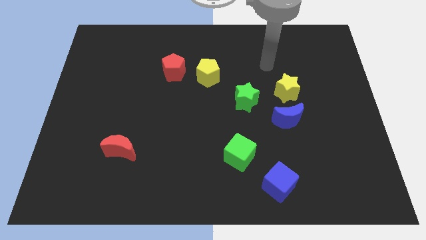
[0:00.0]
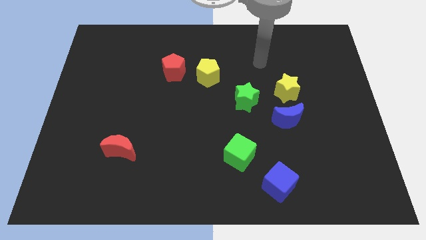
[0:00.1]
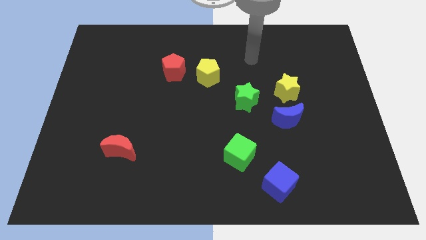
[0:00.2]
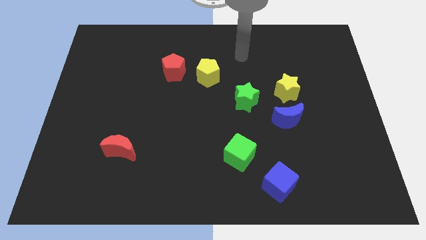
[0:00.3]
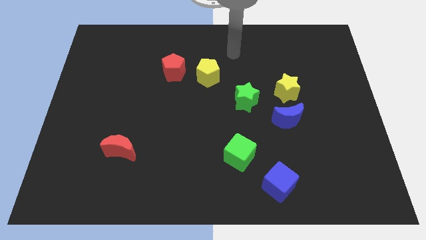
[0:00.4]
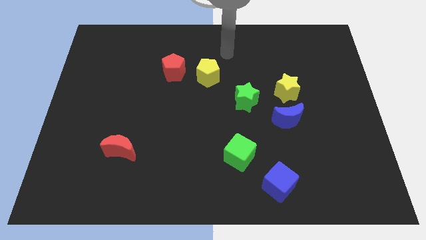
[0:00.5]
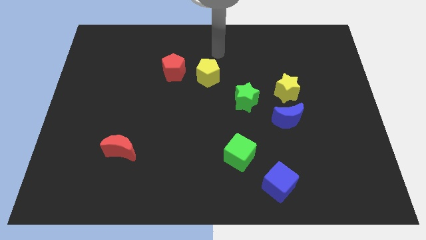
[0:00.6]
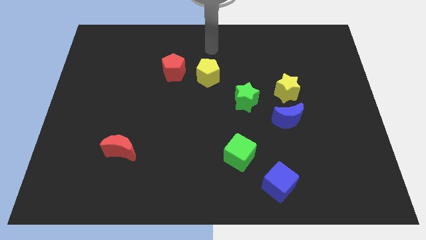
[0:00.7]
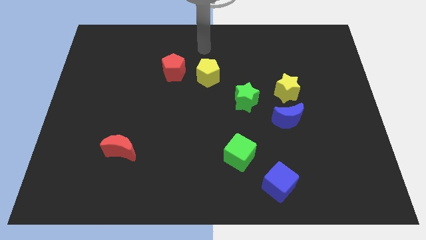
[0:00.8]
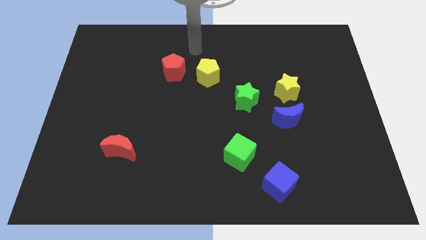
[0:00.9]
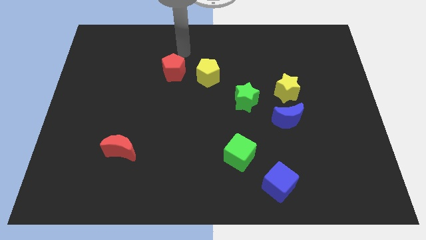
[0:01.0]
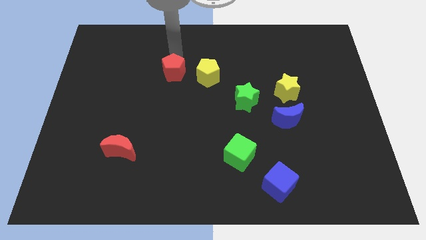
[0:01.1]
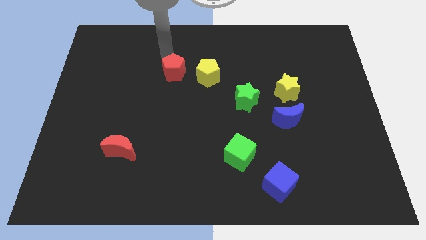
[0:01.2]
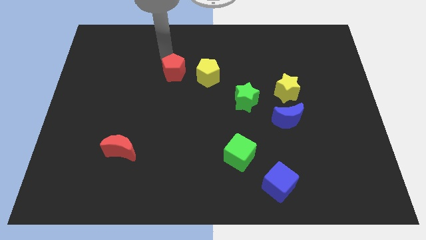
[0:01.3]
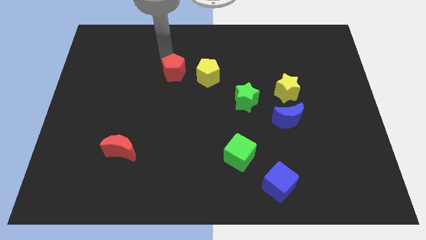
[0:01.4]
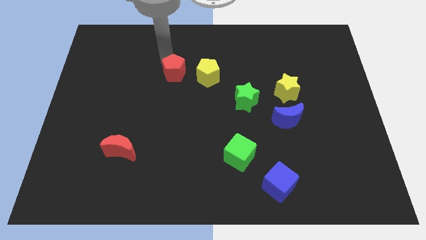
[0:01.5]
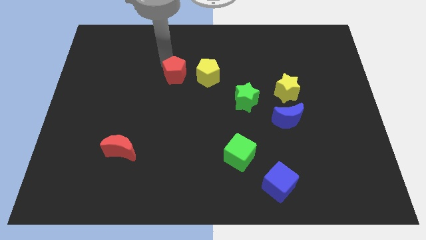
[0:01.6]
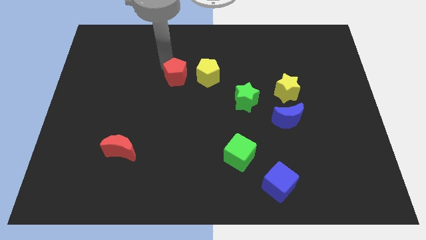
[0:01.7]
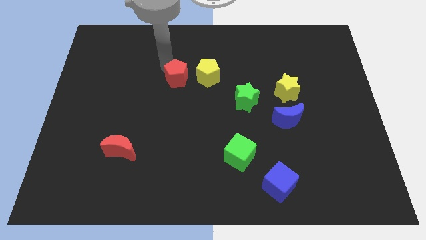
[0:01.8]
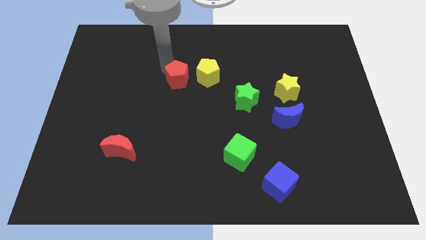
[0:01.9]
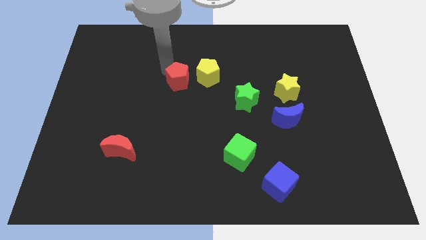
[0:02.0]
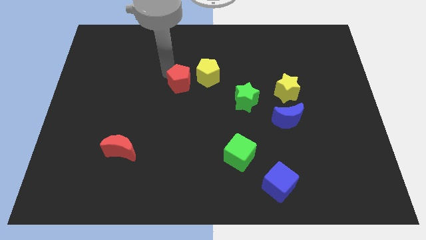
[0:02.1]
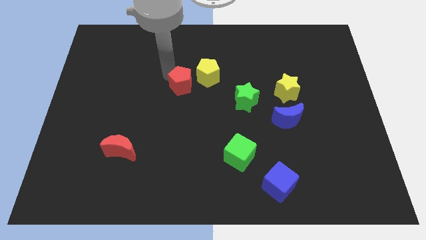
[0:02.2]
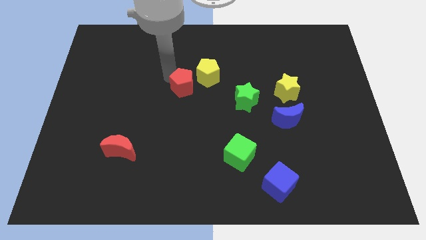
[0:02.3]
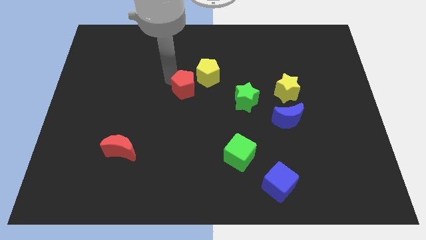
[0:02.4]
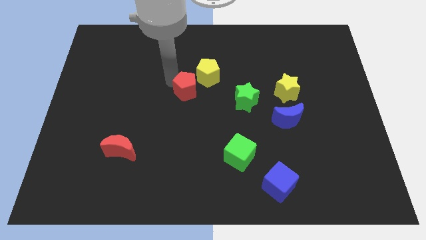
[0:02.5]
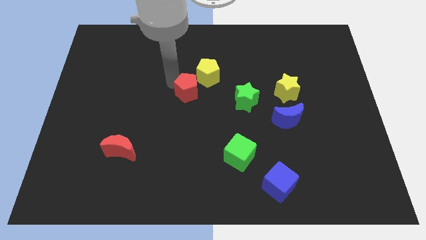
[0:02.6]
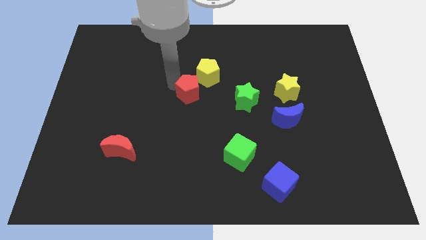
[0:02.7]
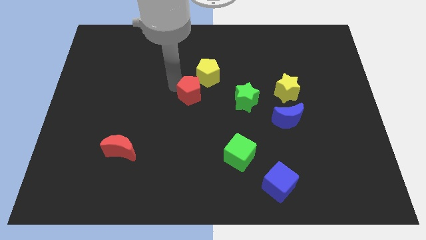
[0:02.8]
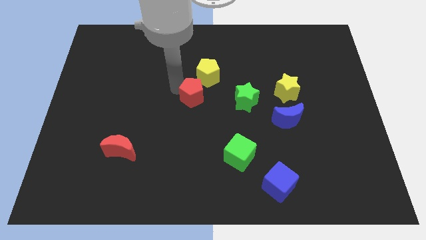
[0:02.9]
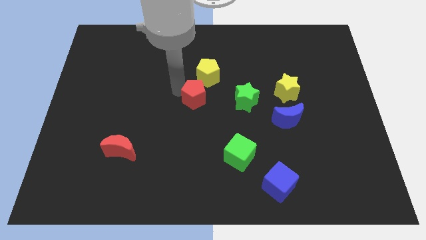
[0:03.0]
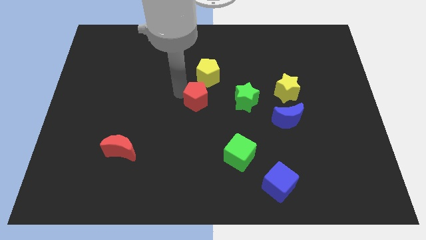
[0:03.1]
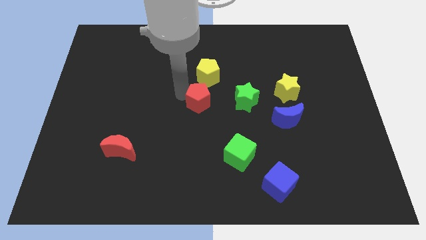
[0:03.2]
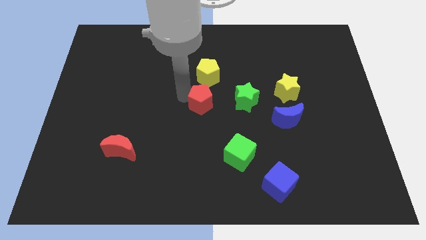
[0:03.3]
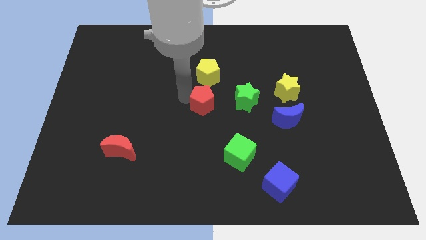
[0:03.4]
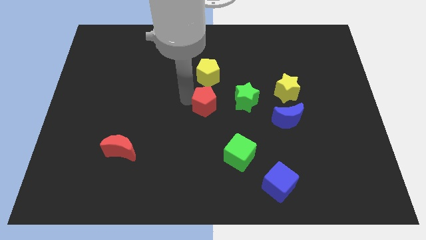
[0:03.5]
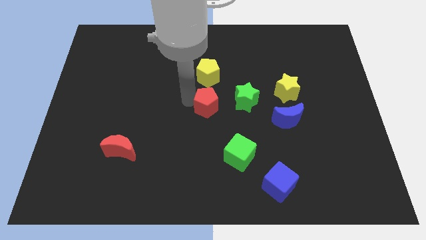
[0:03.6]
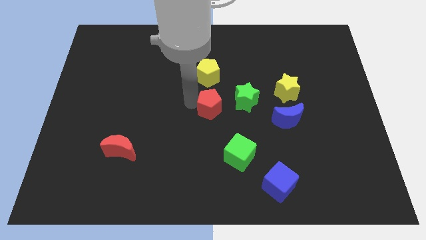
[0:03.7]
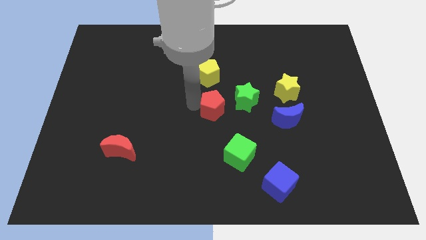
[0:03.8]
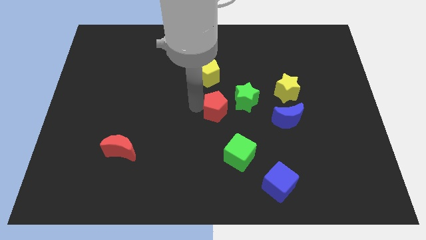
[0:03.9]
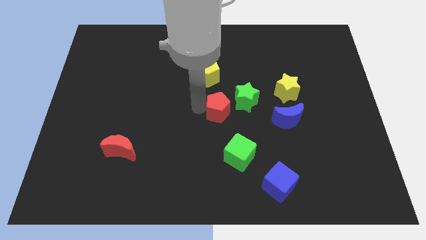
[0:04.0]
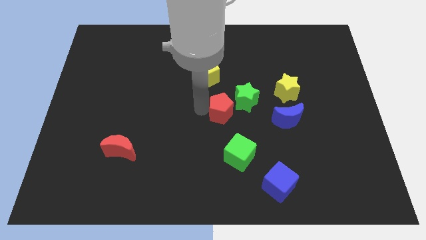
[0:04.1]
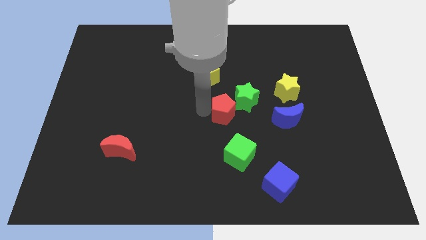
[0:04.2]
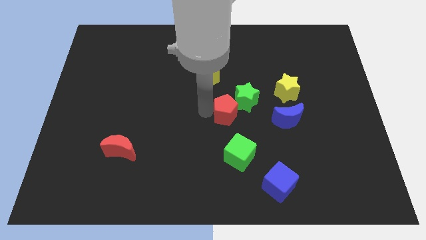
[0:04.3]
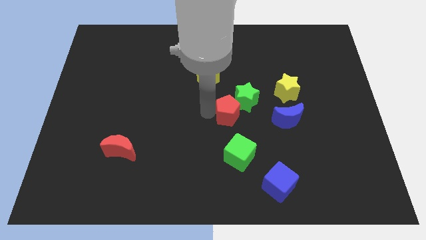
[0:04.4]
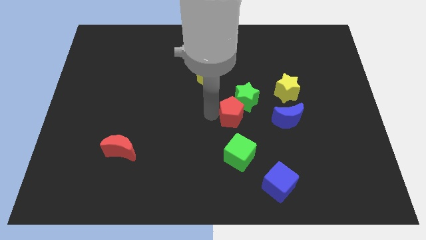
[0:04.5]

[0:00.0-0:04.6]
move the red pentagon diagonally down and to the right

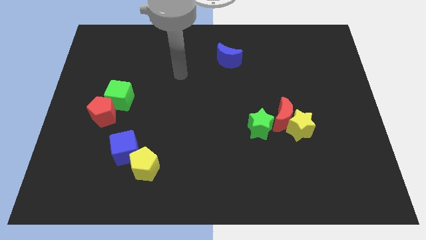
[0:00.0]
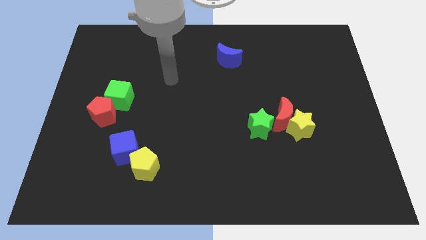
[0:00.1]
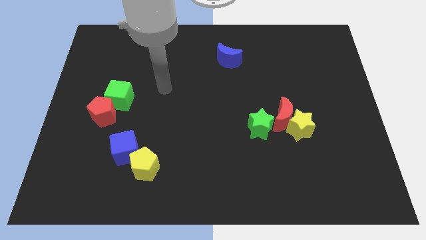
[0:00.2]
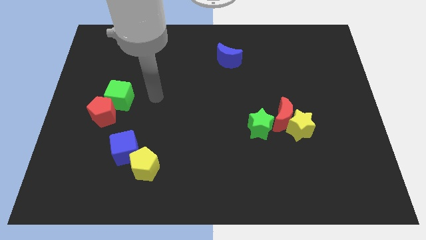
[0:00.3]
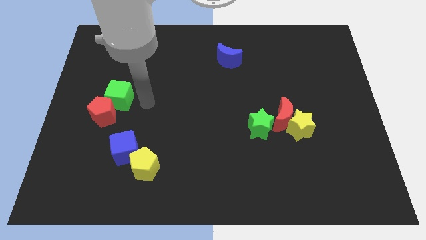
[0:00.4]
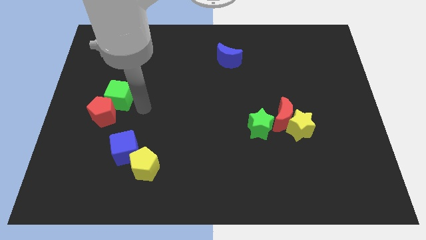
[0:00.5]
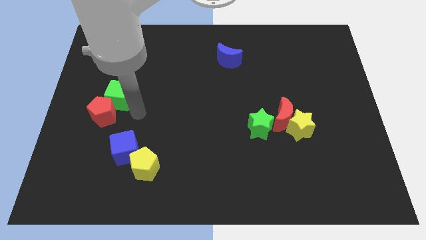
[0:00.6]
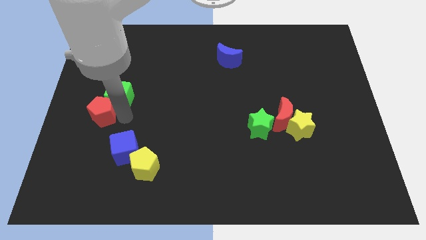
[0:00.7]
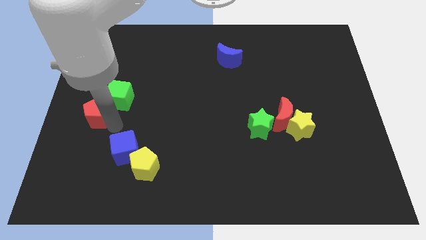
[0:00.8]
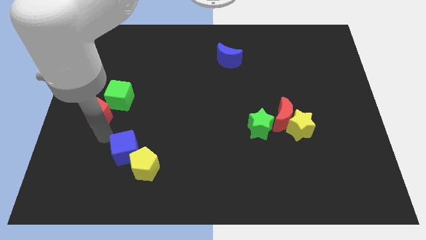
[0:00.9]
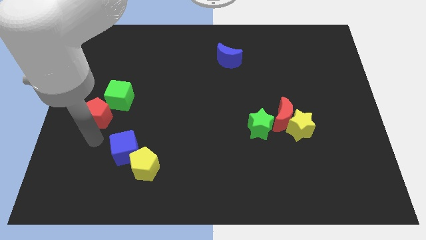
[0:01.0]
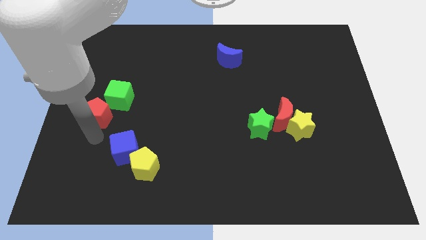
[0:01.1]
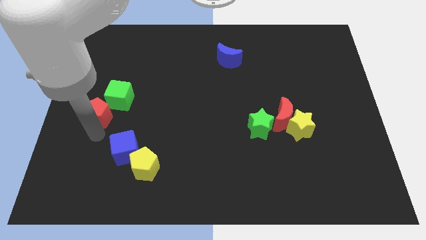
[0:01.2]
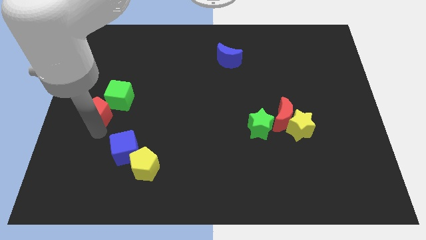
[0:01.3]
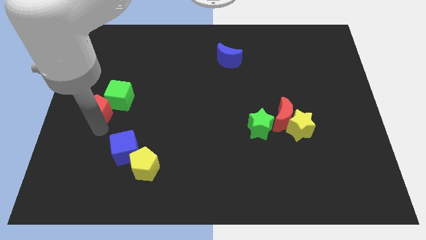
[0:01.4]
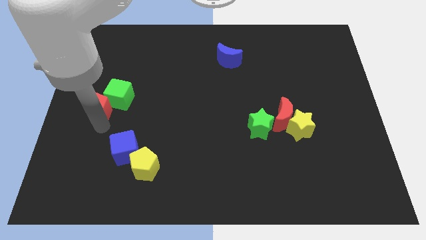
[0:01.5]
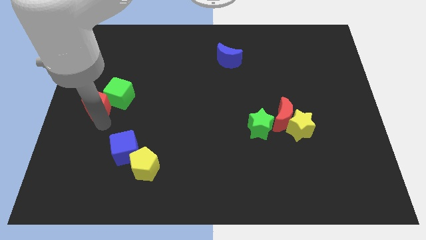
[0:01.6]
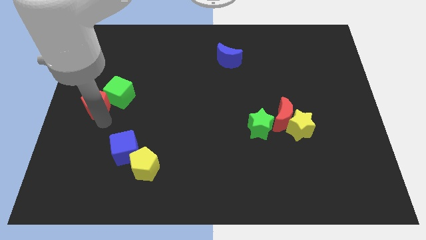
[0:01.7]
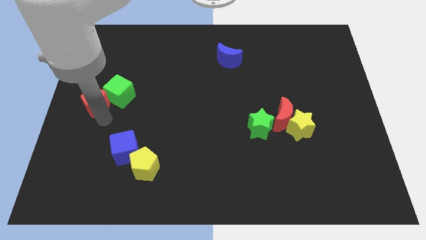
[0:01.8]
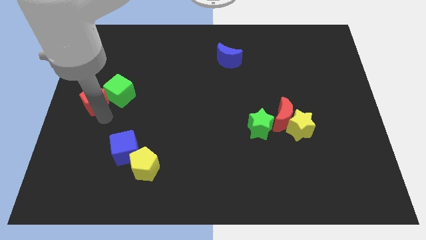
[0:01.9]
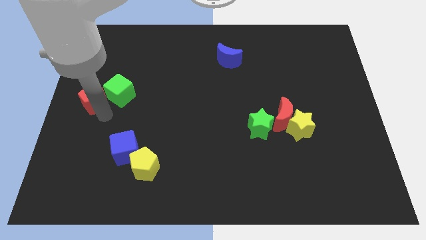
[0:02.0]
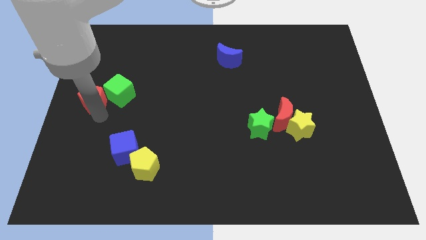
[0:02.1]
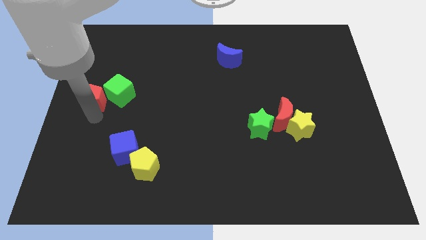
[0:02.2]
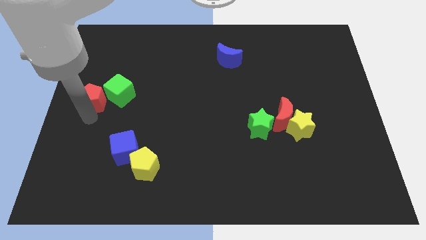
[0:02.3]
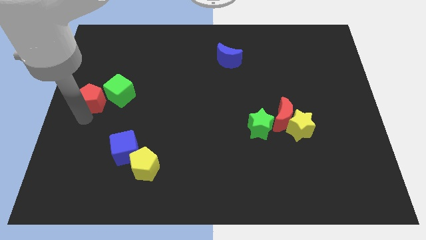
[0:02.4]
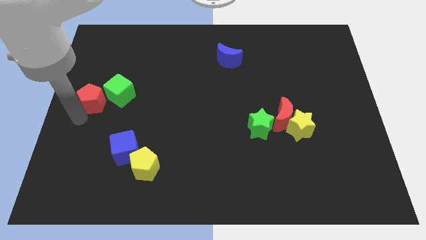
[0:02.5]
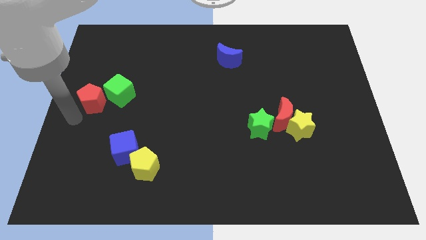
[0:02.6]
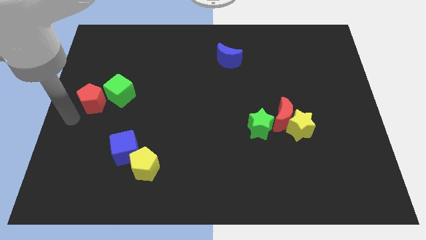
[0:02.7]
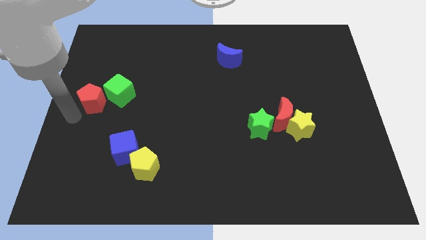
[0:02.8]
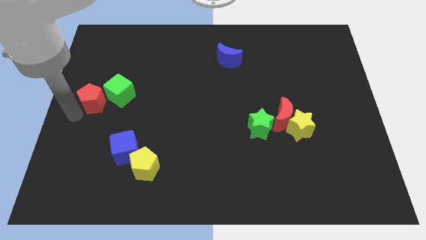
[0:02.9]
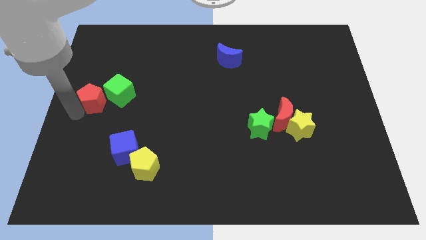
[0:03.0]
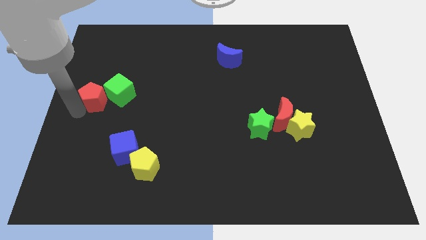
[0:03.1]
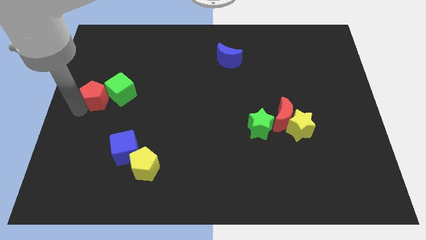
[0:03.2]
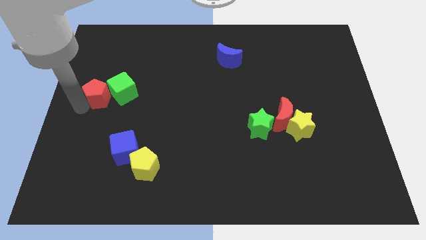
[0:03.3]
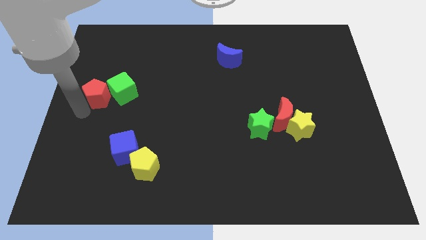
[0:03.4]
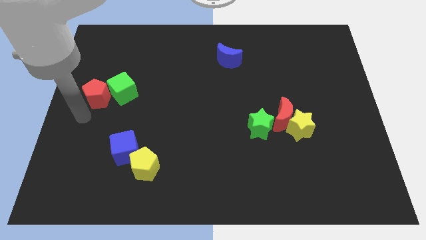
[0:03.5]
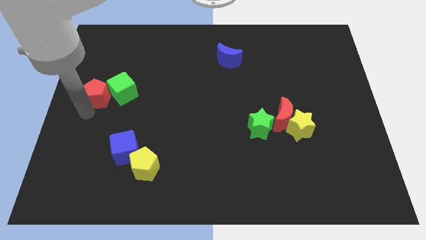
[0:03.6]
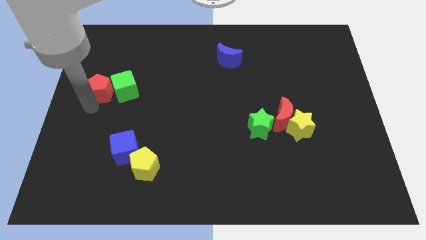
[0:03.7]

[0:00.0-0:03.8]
slide the red pentagon upwards a little
